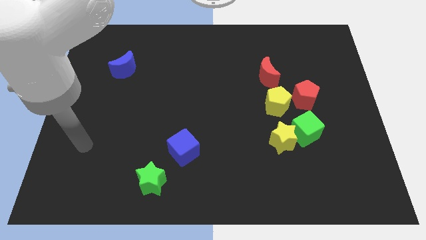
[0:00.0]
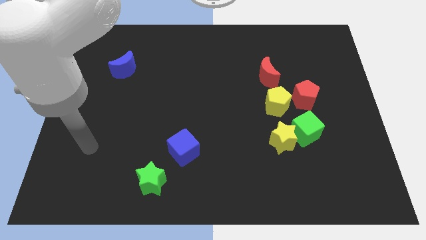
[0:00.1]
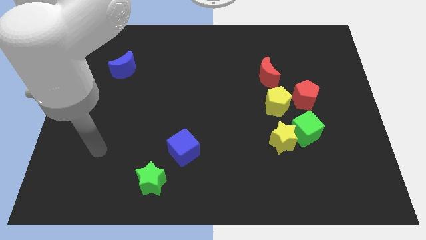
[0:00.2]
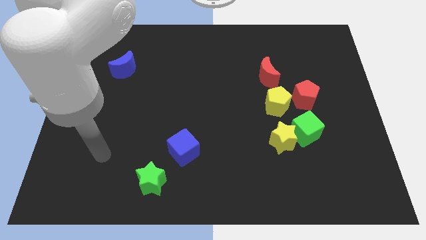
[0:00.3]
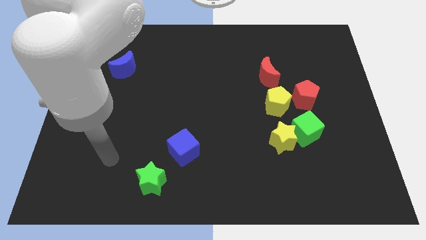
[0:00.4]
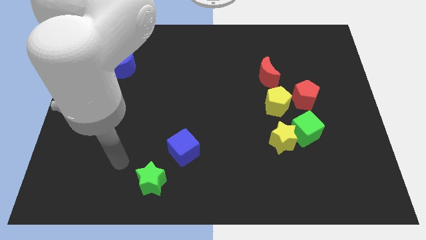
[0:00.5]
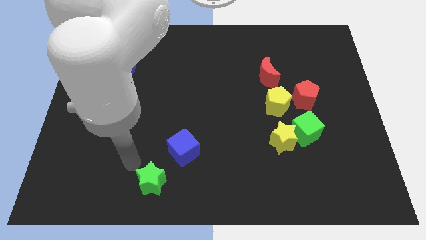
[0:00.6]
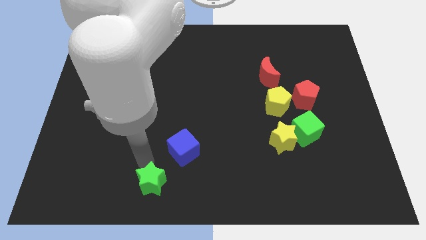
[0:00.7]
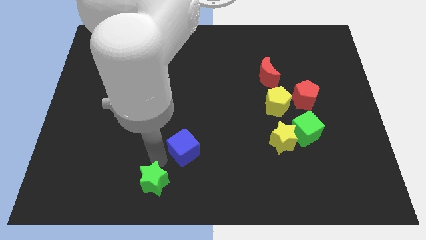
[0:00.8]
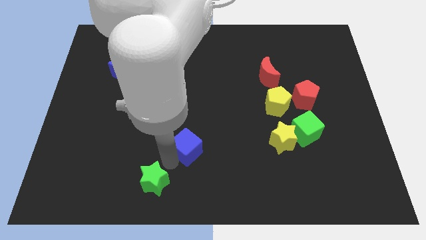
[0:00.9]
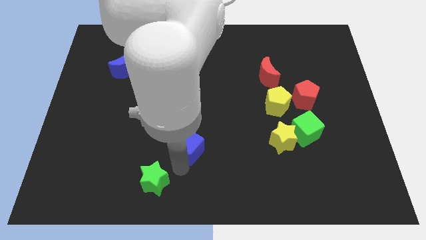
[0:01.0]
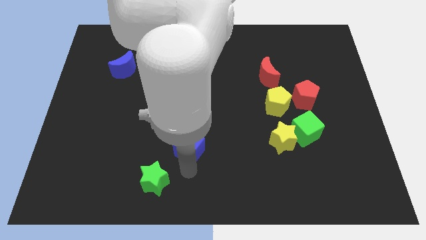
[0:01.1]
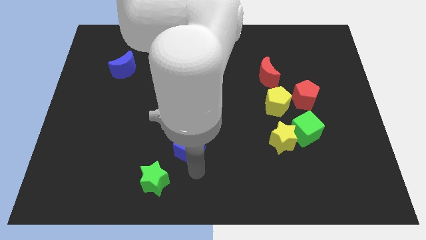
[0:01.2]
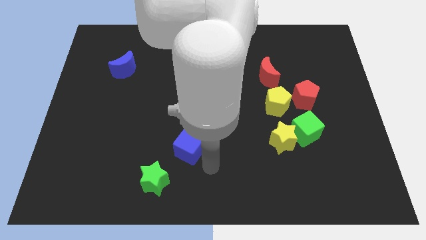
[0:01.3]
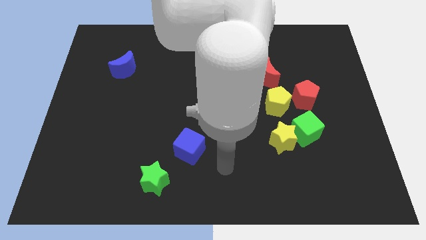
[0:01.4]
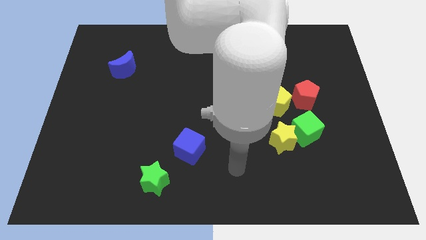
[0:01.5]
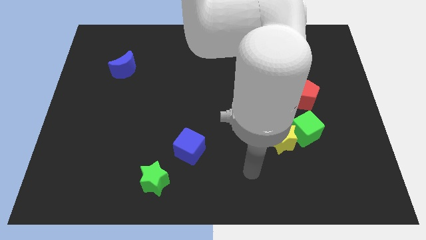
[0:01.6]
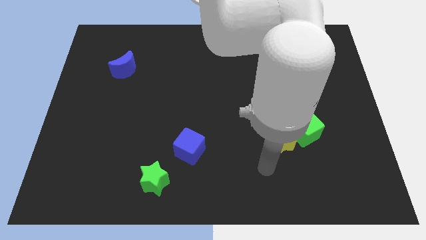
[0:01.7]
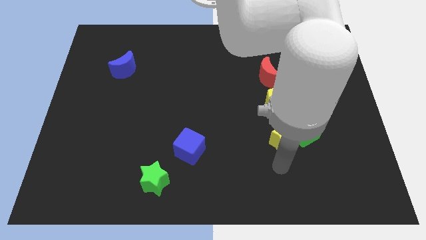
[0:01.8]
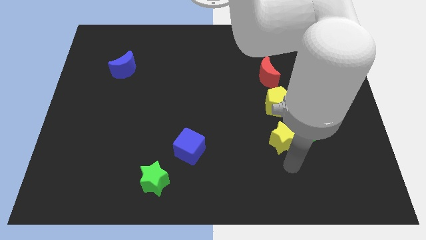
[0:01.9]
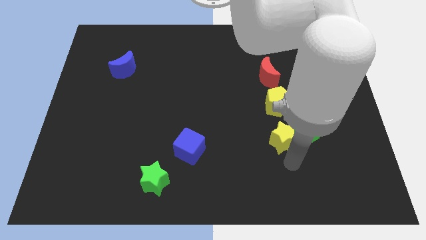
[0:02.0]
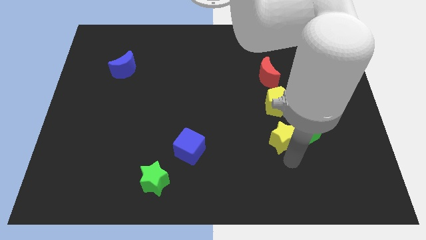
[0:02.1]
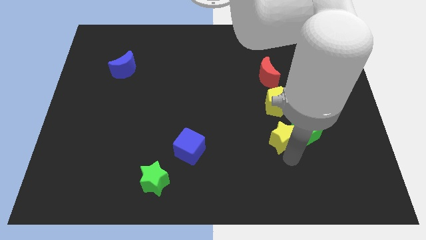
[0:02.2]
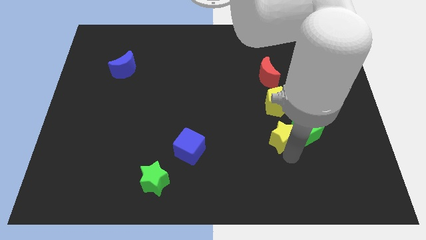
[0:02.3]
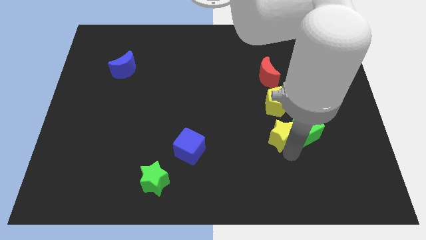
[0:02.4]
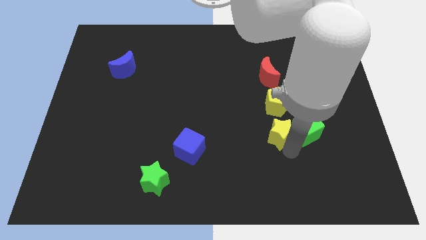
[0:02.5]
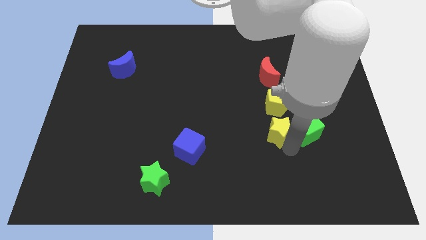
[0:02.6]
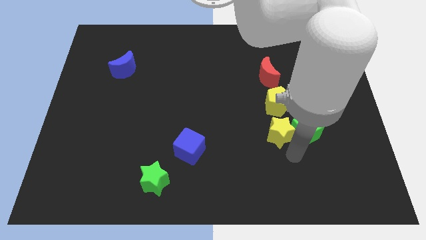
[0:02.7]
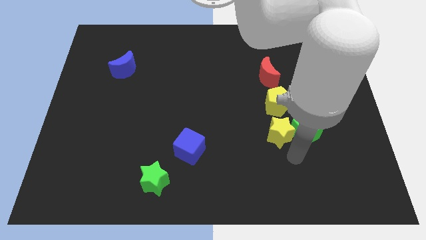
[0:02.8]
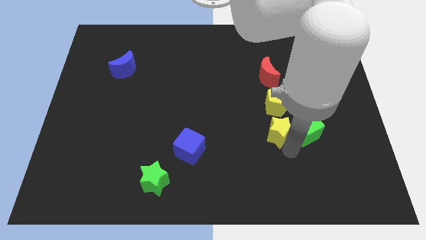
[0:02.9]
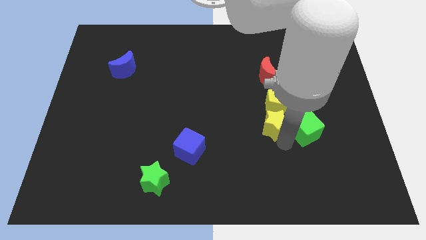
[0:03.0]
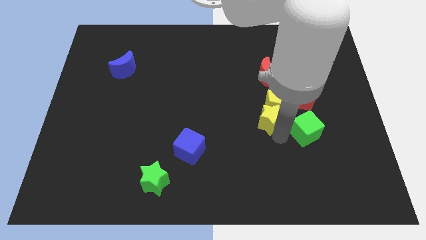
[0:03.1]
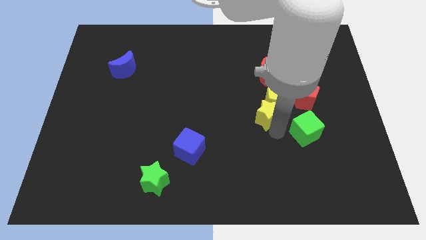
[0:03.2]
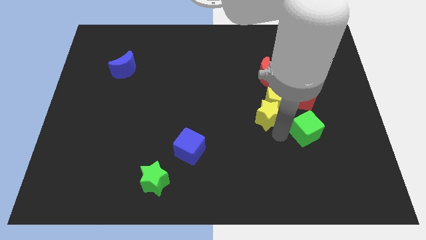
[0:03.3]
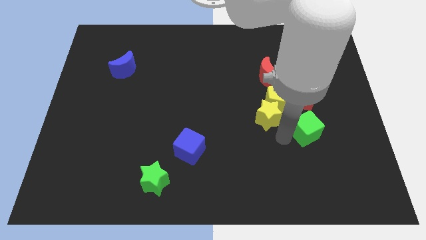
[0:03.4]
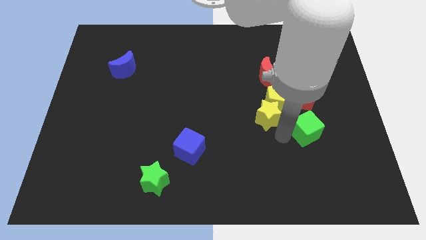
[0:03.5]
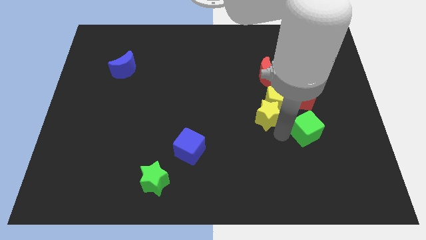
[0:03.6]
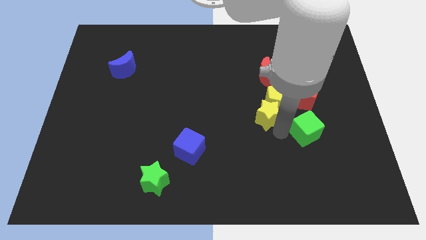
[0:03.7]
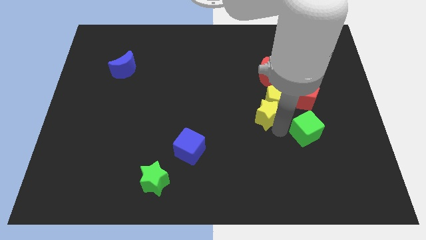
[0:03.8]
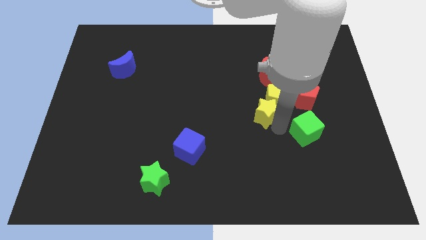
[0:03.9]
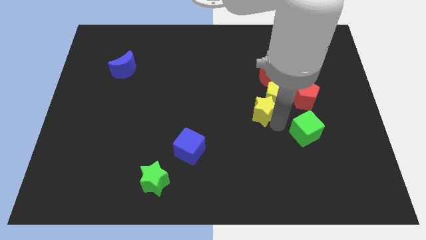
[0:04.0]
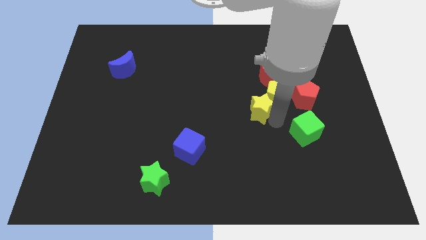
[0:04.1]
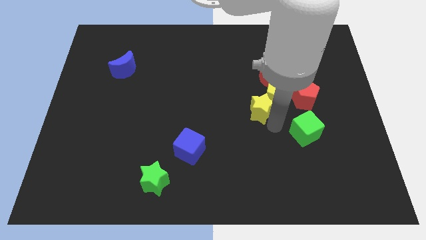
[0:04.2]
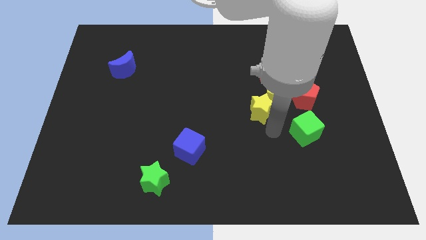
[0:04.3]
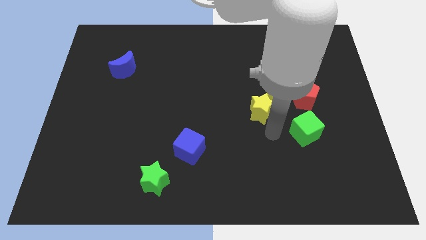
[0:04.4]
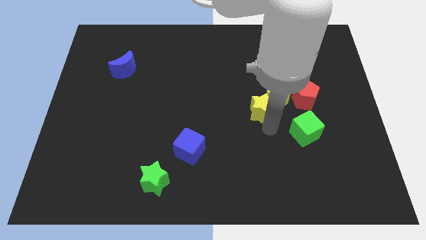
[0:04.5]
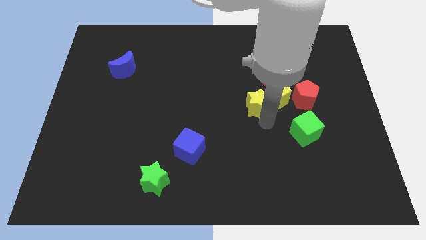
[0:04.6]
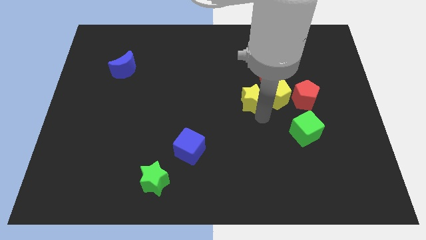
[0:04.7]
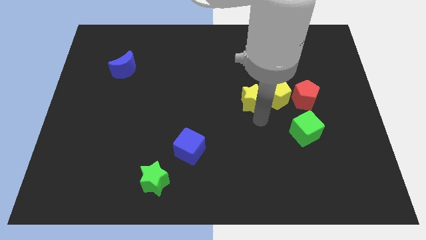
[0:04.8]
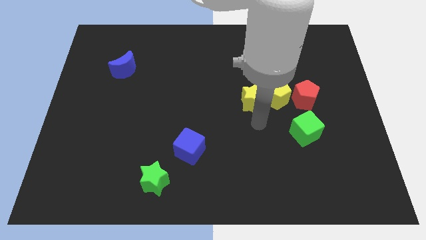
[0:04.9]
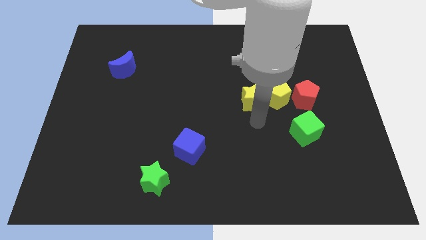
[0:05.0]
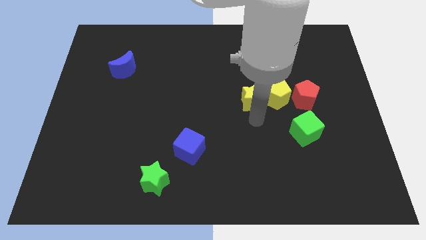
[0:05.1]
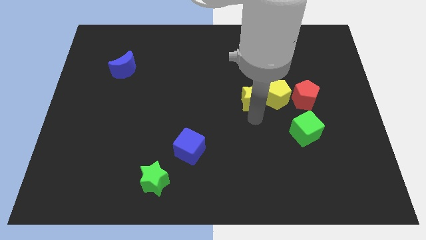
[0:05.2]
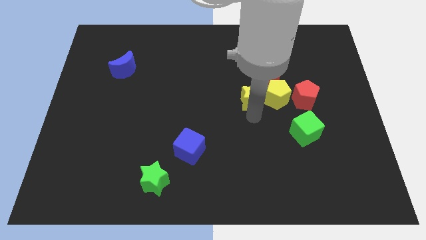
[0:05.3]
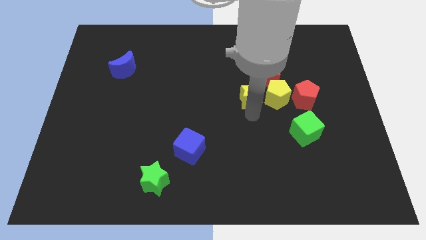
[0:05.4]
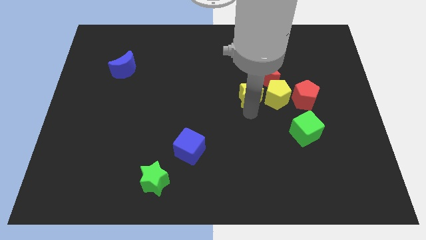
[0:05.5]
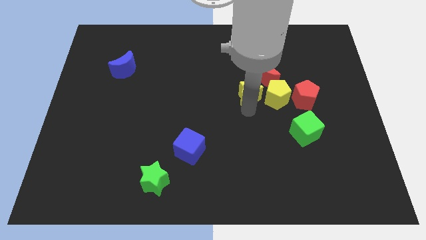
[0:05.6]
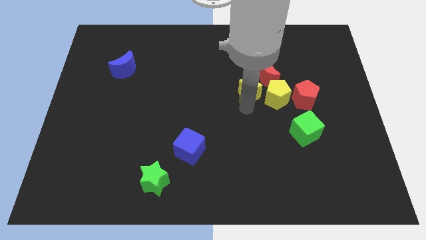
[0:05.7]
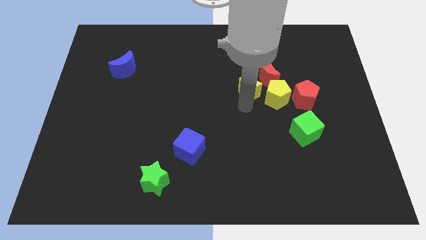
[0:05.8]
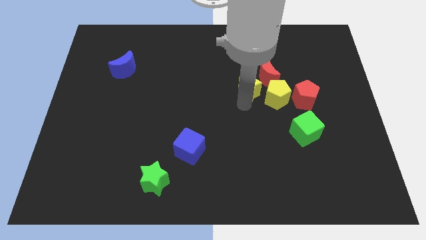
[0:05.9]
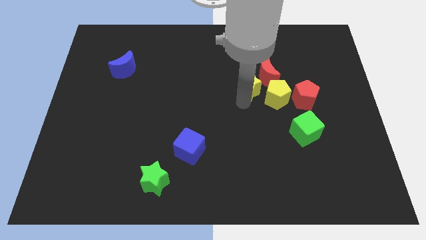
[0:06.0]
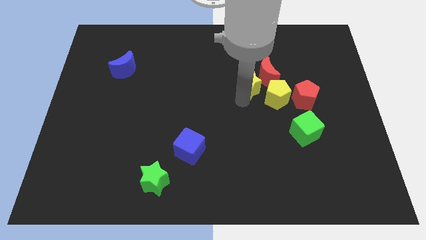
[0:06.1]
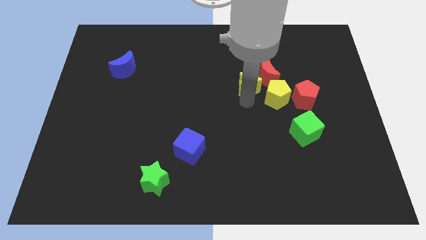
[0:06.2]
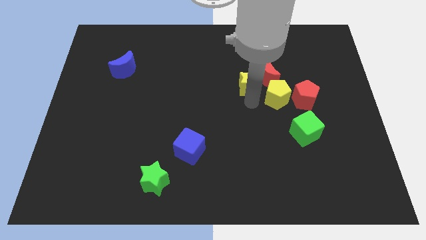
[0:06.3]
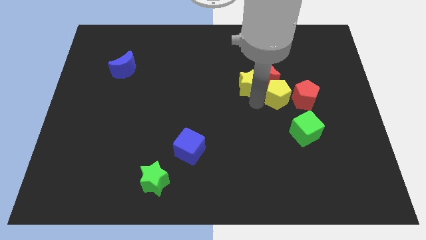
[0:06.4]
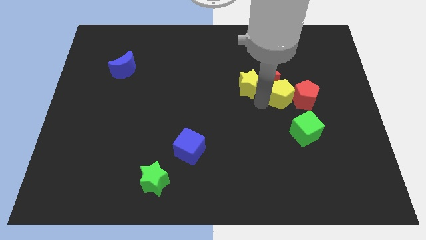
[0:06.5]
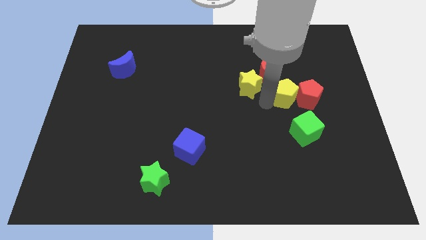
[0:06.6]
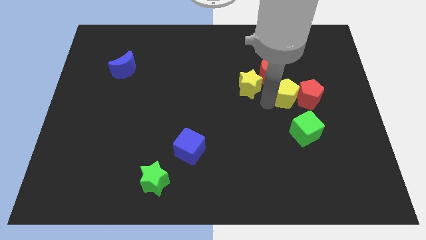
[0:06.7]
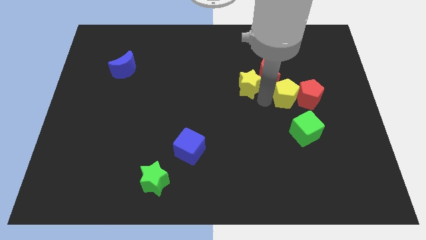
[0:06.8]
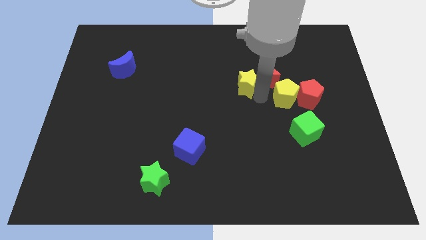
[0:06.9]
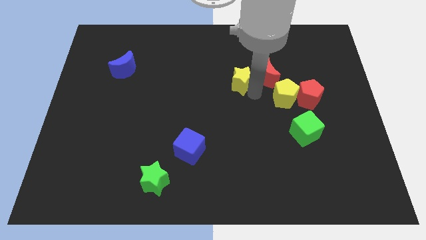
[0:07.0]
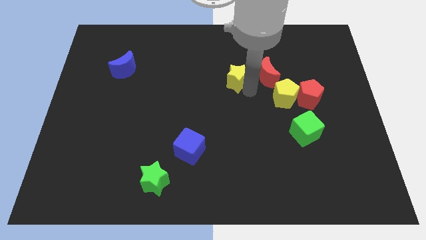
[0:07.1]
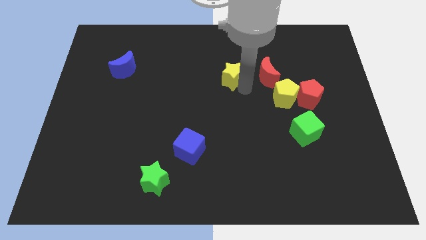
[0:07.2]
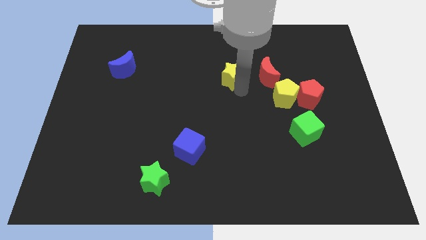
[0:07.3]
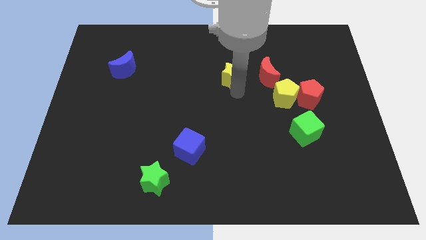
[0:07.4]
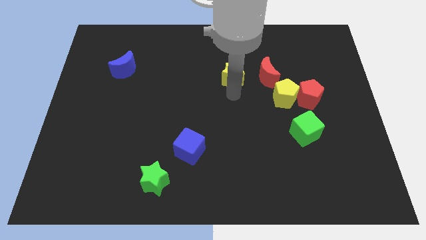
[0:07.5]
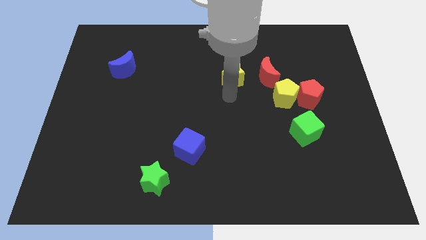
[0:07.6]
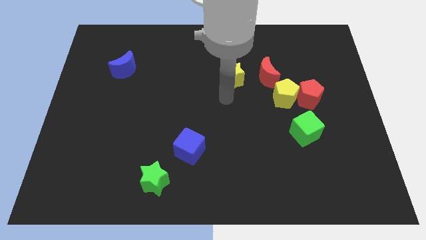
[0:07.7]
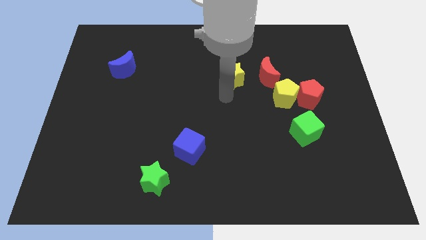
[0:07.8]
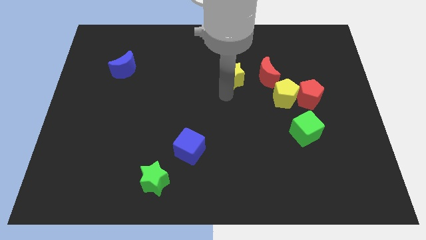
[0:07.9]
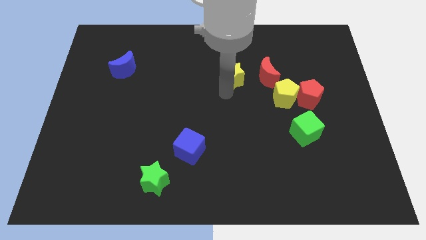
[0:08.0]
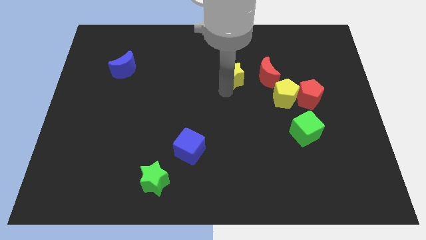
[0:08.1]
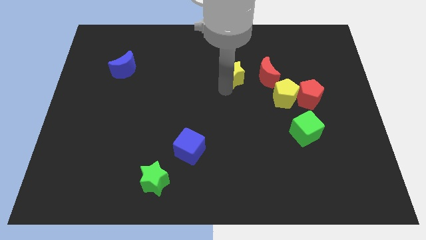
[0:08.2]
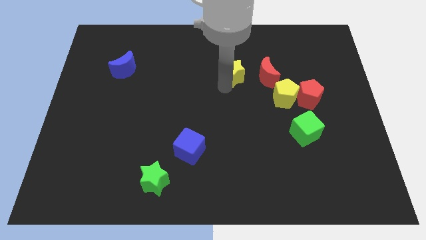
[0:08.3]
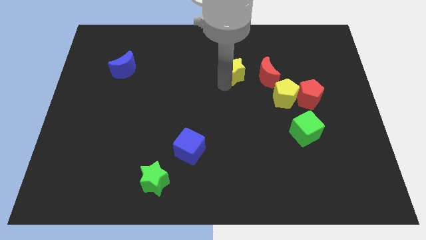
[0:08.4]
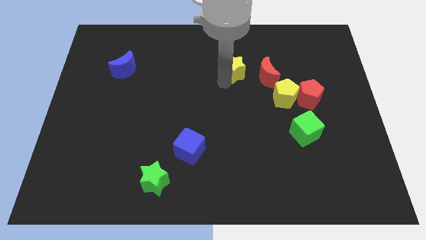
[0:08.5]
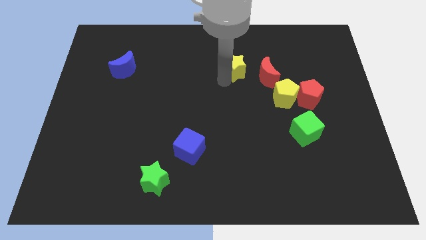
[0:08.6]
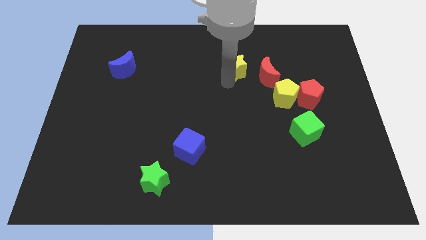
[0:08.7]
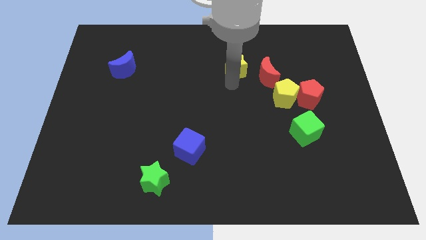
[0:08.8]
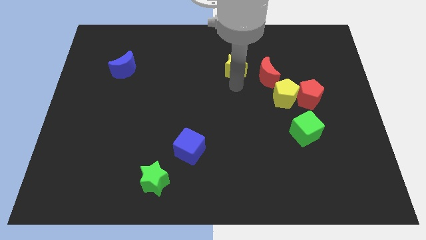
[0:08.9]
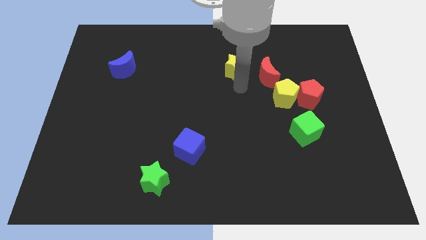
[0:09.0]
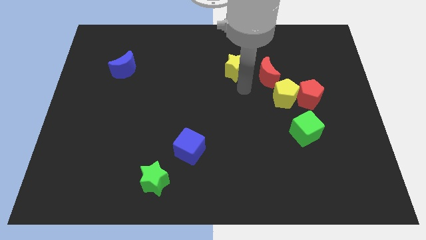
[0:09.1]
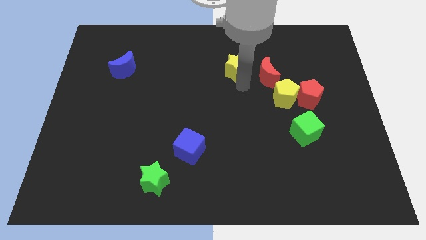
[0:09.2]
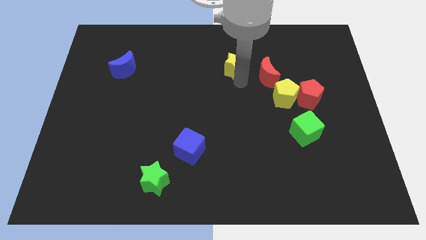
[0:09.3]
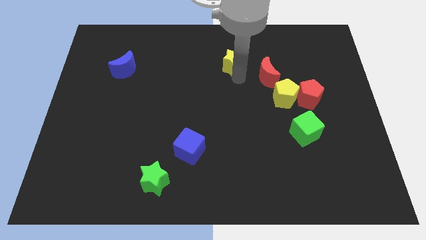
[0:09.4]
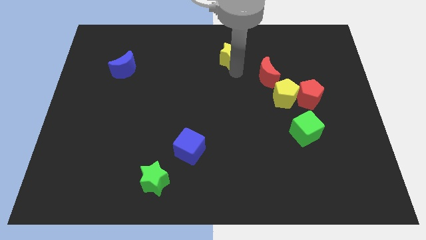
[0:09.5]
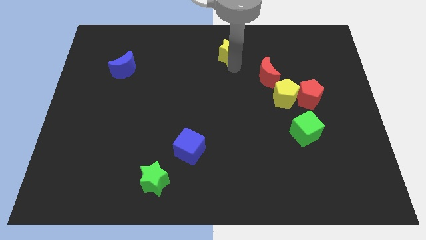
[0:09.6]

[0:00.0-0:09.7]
push the yellow star to the top side
